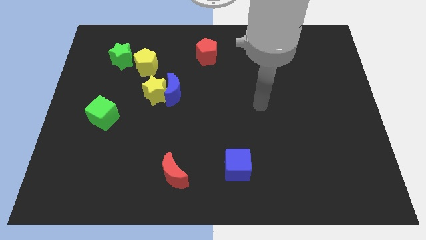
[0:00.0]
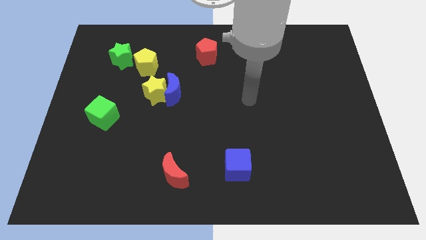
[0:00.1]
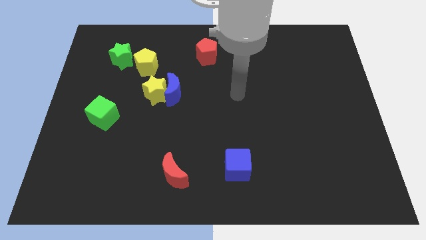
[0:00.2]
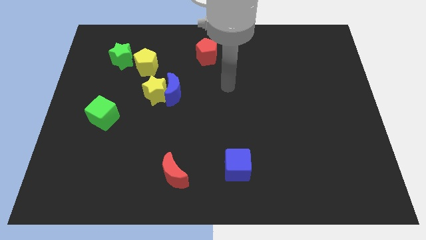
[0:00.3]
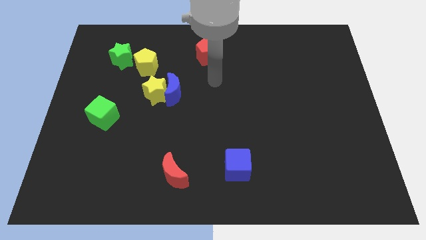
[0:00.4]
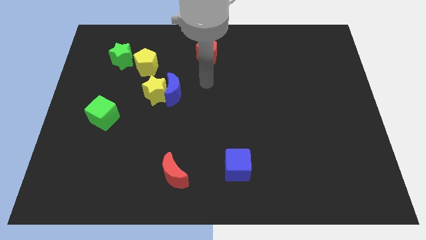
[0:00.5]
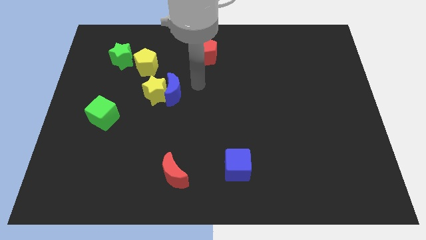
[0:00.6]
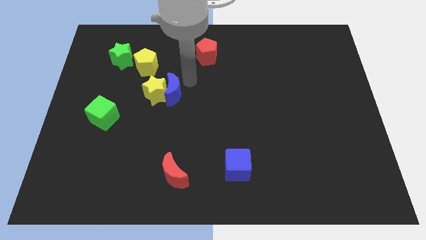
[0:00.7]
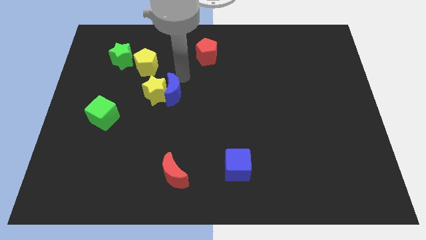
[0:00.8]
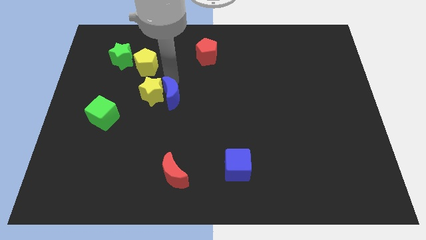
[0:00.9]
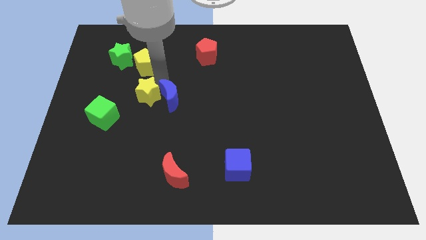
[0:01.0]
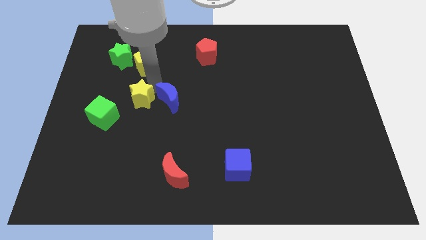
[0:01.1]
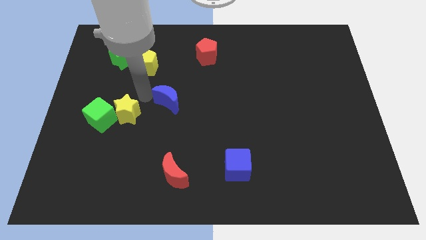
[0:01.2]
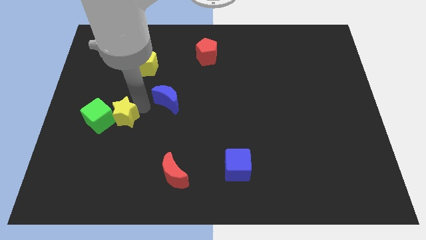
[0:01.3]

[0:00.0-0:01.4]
separate the blue moon from the yellow star

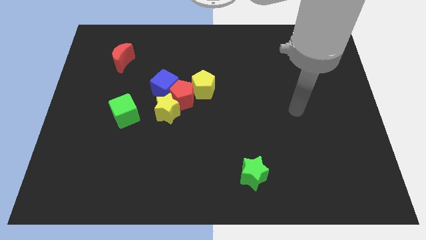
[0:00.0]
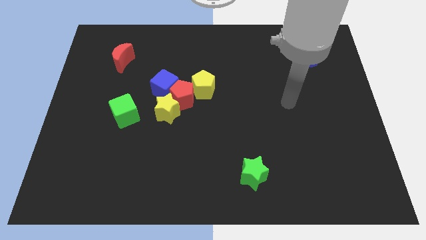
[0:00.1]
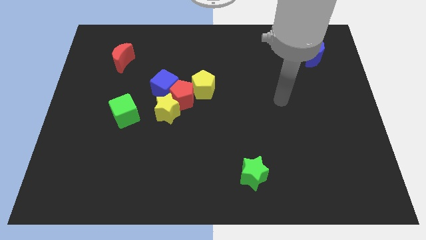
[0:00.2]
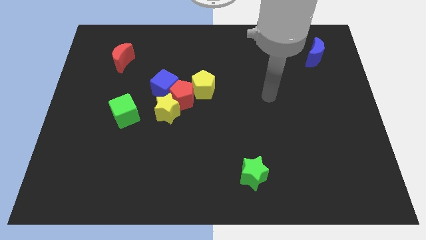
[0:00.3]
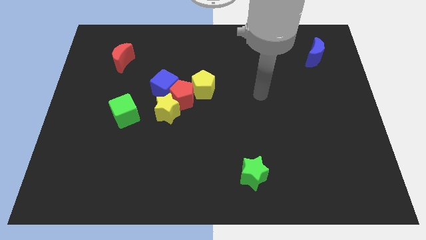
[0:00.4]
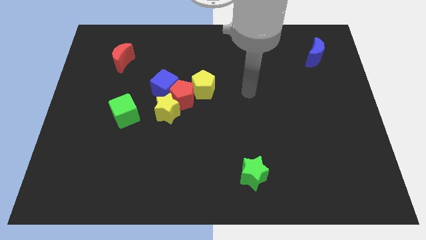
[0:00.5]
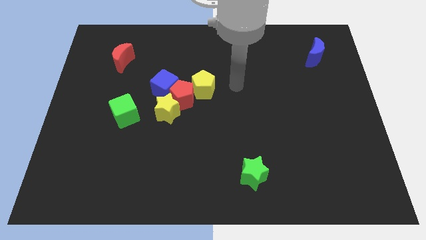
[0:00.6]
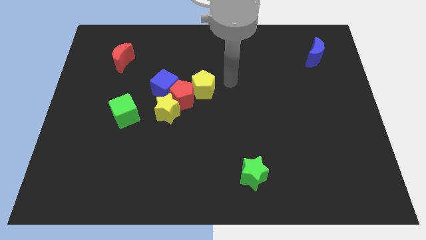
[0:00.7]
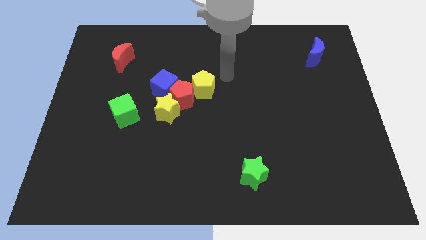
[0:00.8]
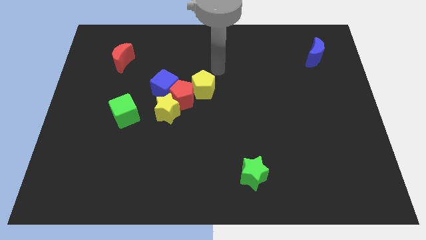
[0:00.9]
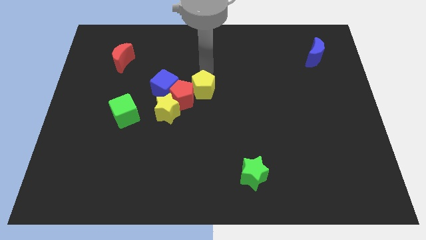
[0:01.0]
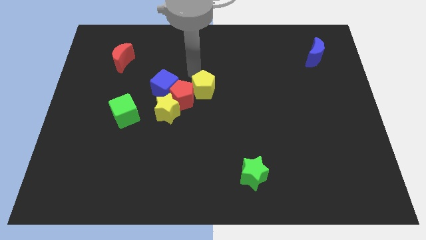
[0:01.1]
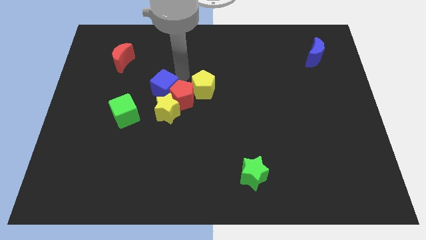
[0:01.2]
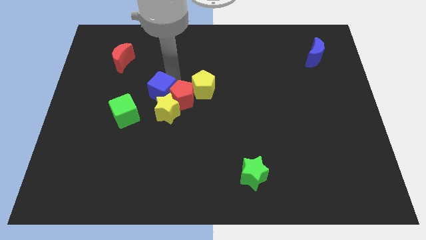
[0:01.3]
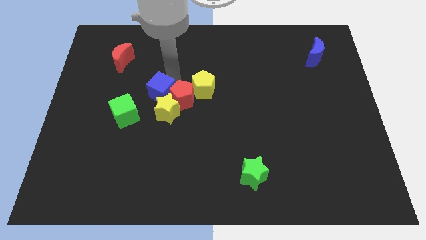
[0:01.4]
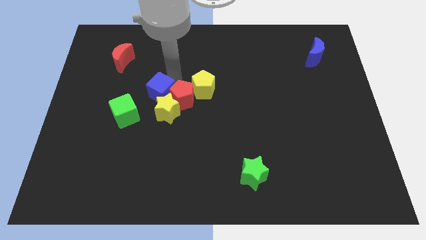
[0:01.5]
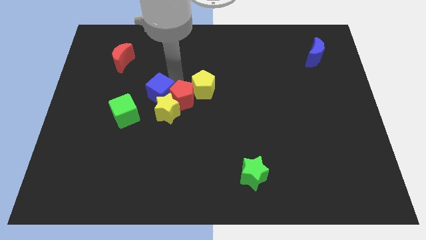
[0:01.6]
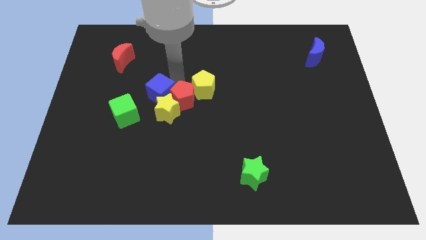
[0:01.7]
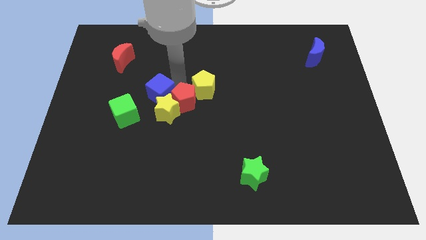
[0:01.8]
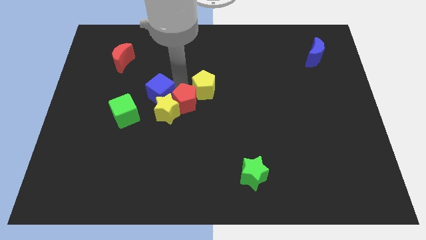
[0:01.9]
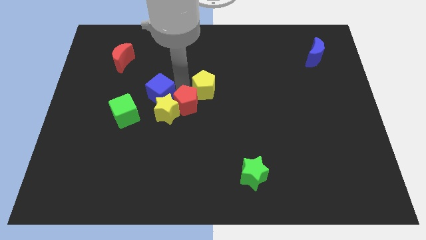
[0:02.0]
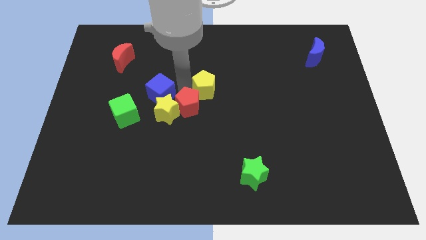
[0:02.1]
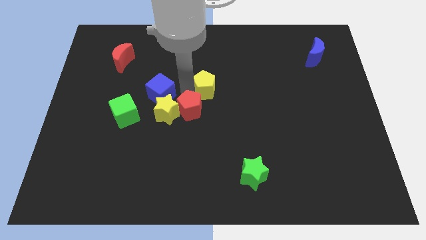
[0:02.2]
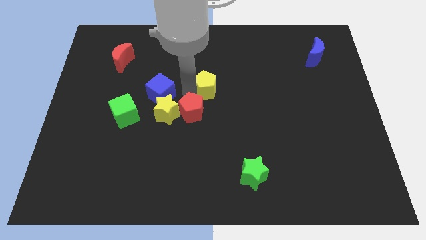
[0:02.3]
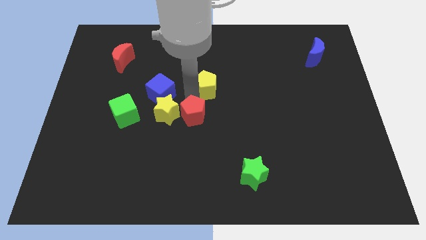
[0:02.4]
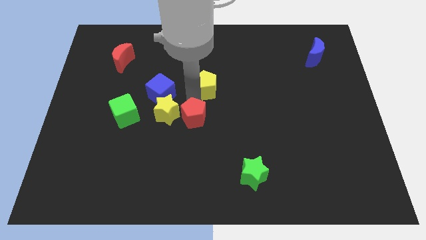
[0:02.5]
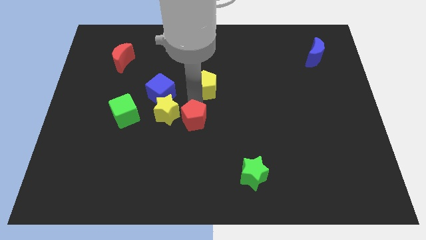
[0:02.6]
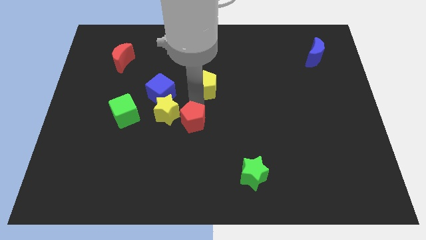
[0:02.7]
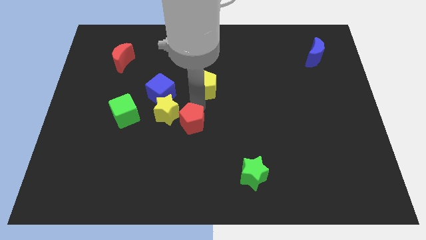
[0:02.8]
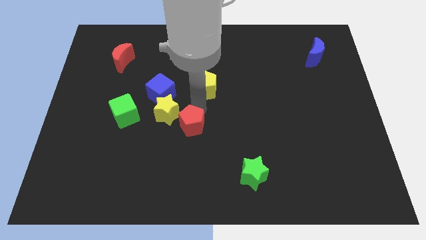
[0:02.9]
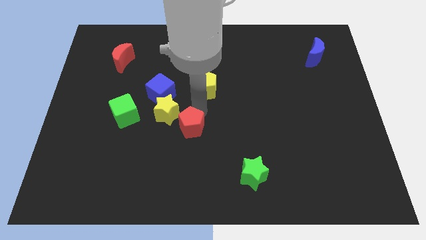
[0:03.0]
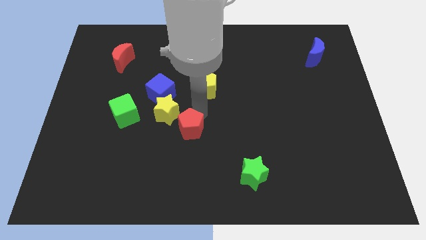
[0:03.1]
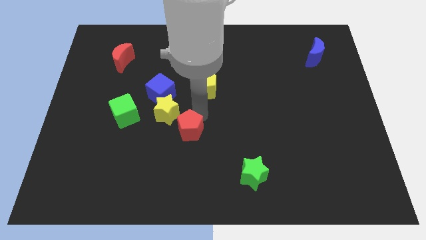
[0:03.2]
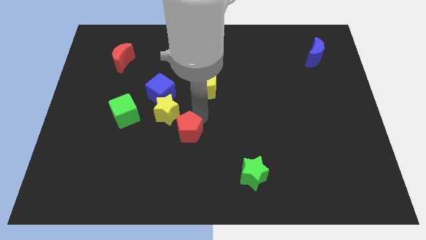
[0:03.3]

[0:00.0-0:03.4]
move the red pentagon away from the group of blocks

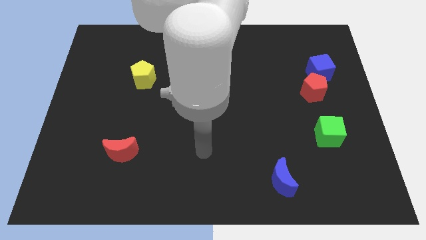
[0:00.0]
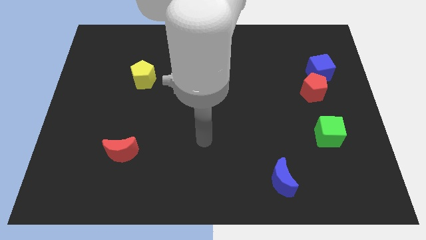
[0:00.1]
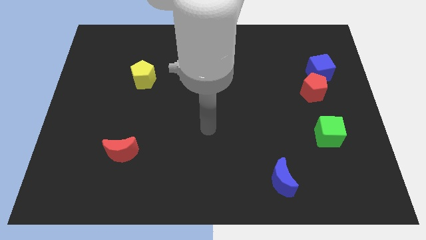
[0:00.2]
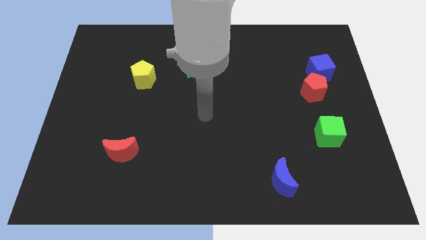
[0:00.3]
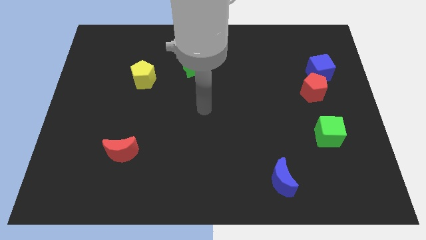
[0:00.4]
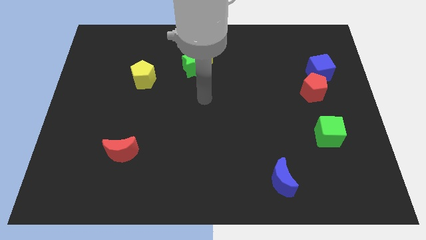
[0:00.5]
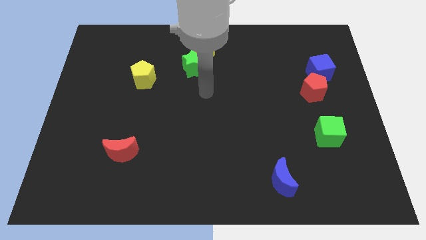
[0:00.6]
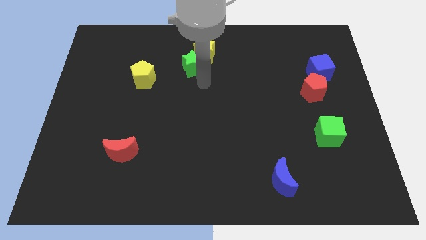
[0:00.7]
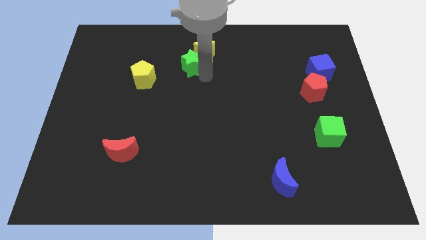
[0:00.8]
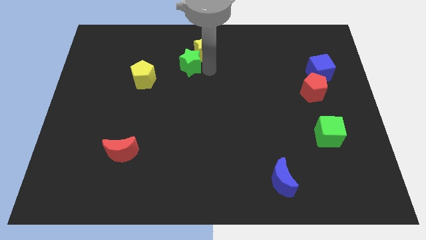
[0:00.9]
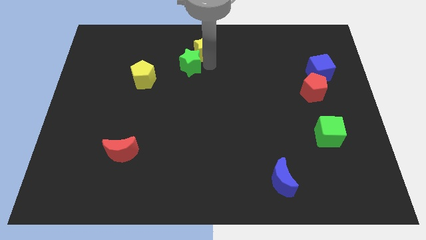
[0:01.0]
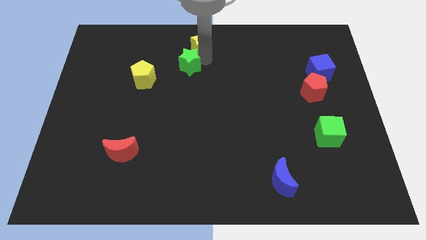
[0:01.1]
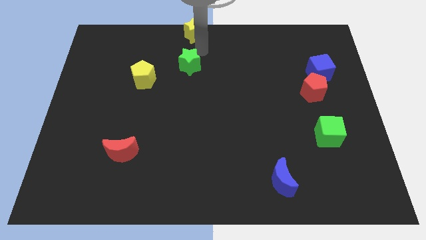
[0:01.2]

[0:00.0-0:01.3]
pull the green star apart from the yellow star

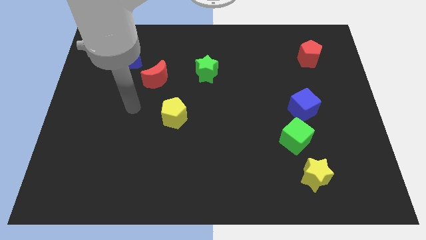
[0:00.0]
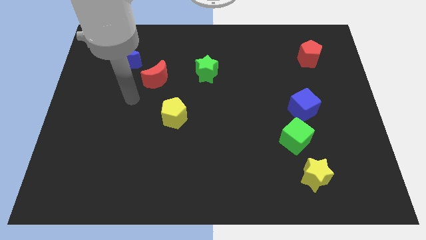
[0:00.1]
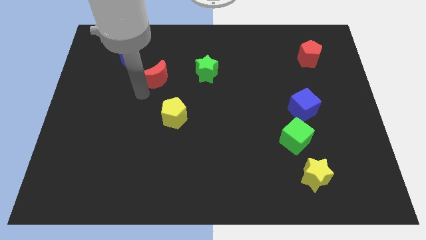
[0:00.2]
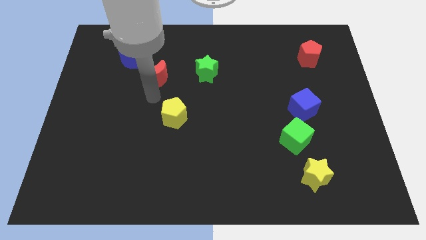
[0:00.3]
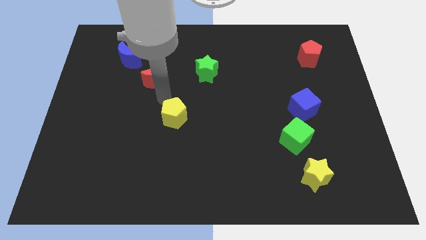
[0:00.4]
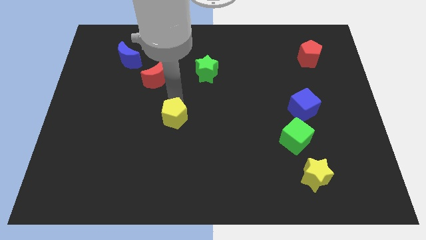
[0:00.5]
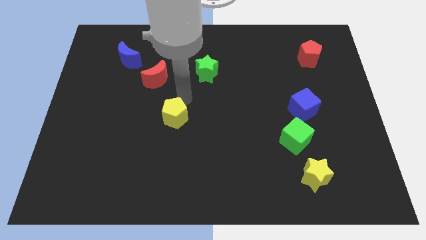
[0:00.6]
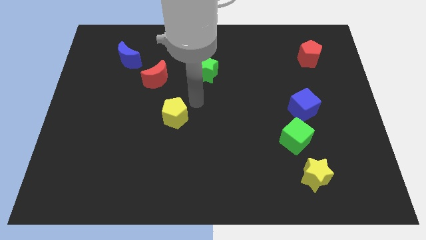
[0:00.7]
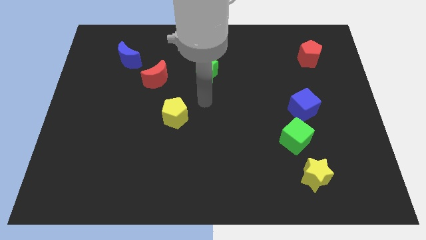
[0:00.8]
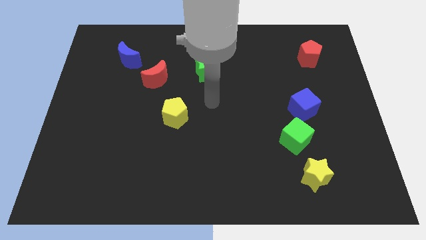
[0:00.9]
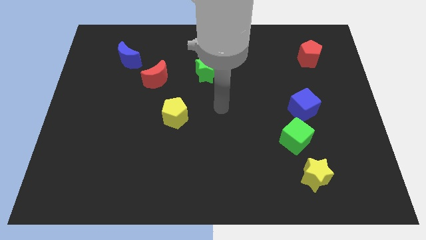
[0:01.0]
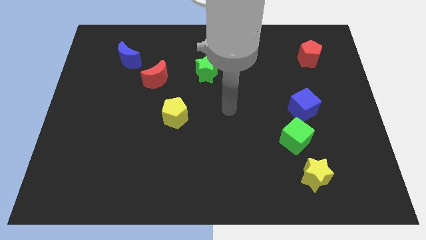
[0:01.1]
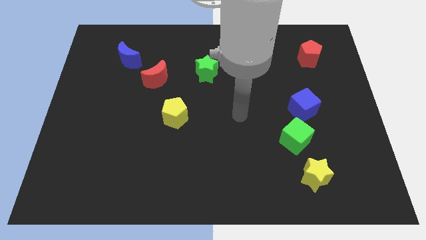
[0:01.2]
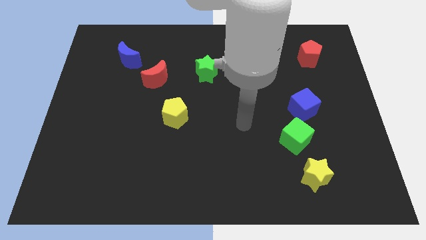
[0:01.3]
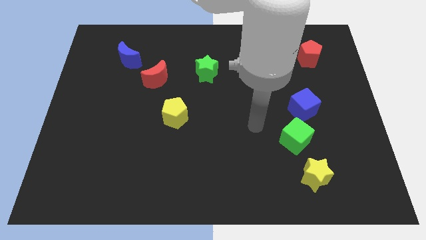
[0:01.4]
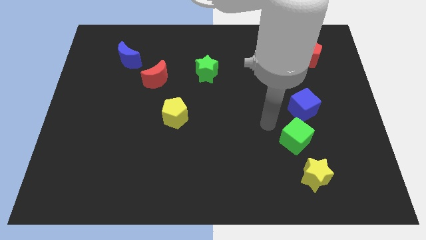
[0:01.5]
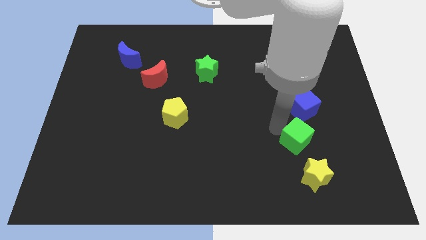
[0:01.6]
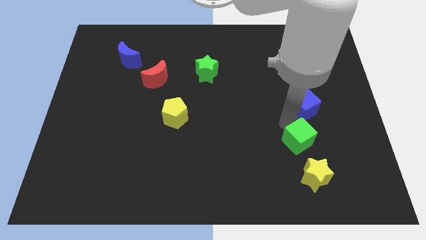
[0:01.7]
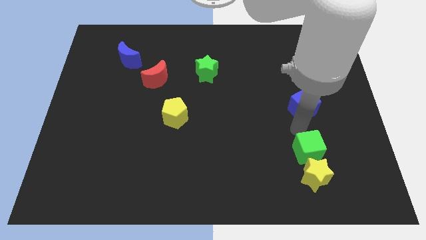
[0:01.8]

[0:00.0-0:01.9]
pull the blue cube apart from the green cube

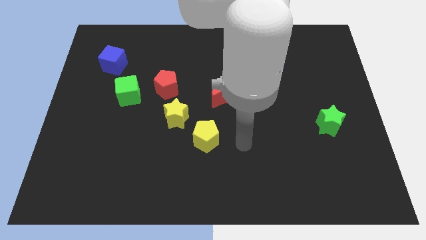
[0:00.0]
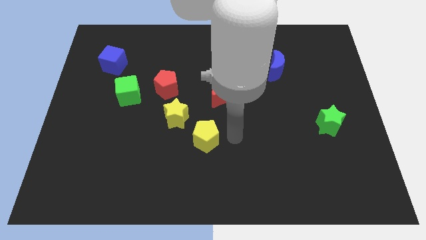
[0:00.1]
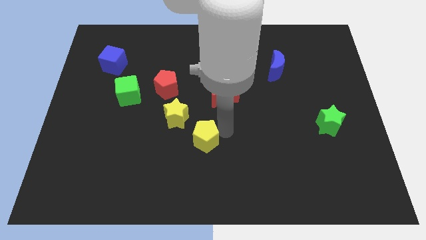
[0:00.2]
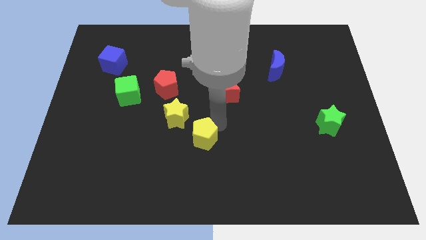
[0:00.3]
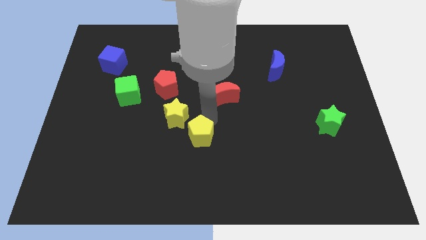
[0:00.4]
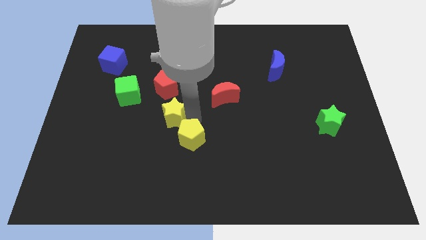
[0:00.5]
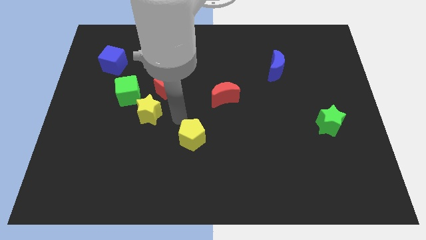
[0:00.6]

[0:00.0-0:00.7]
move the yellow pentagon away from the yellow star

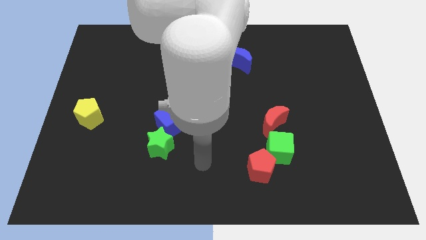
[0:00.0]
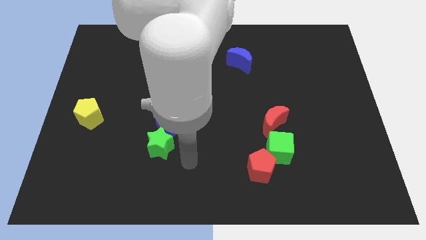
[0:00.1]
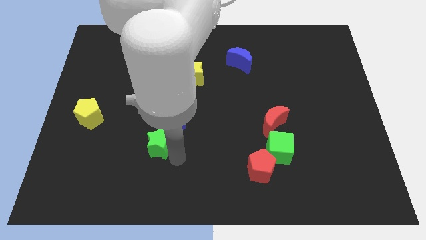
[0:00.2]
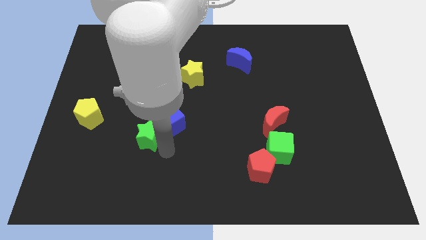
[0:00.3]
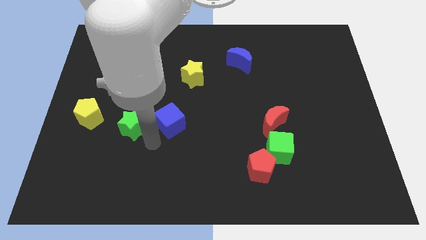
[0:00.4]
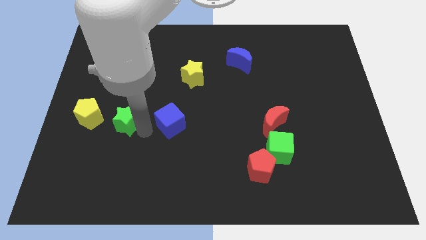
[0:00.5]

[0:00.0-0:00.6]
pull the blue cube apart from the green star

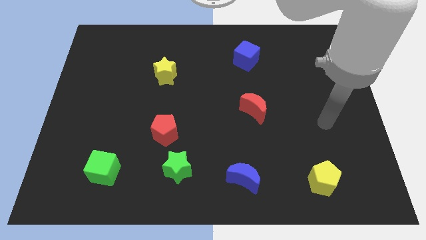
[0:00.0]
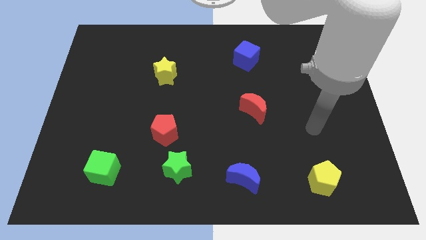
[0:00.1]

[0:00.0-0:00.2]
separate the red pentagon from the green star
